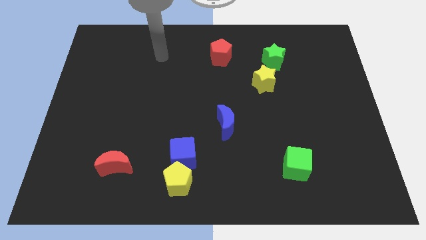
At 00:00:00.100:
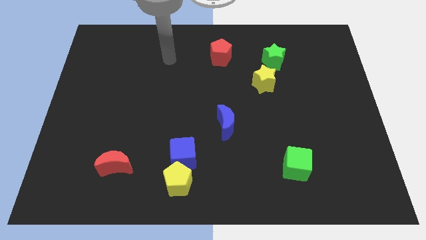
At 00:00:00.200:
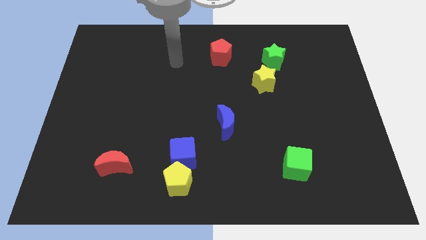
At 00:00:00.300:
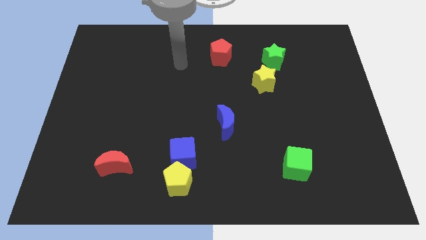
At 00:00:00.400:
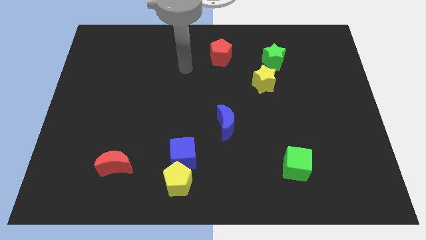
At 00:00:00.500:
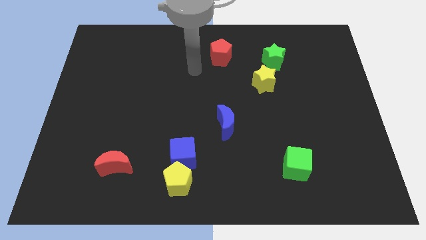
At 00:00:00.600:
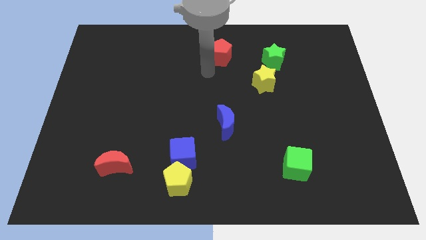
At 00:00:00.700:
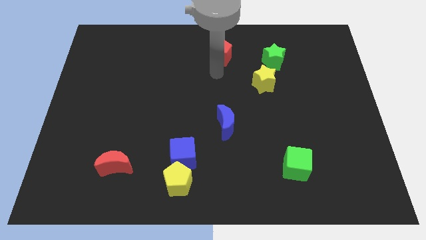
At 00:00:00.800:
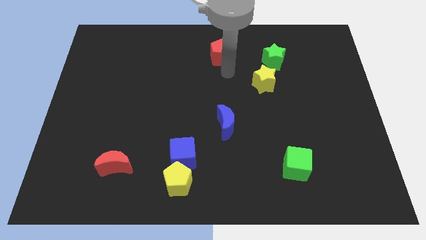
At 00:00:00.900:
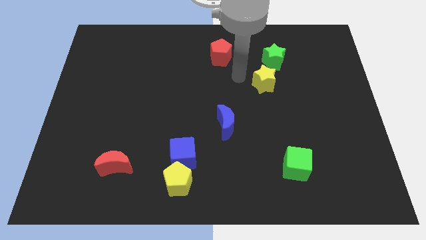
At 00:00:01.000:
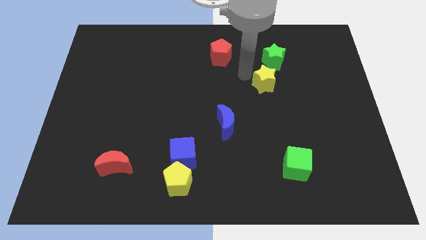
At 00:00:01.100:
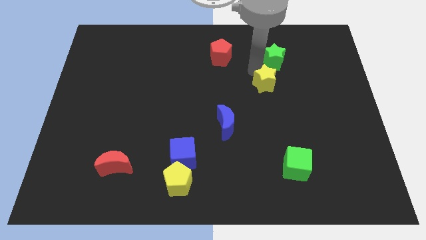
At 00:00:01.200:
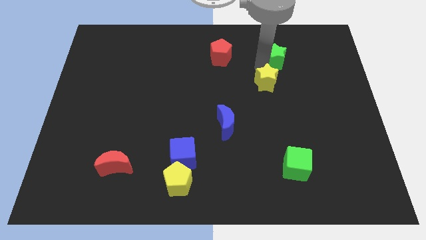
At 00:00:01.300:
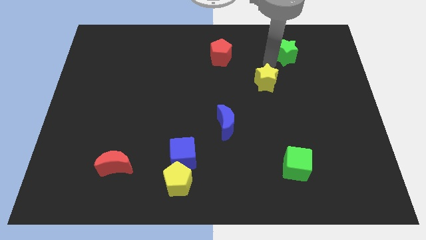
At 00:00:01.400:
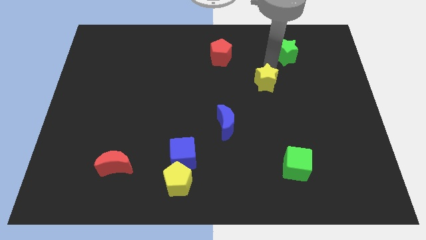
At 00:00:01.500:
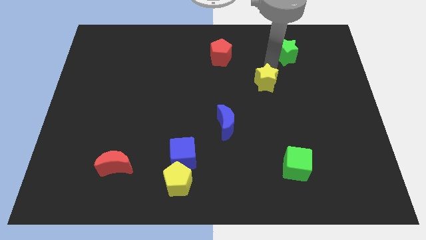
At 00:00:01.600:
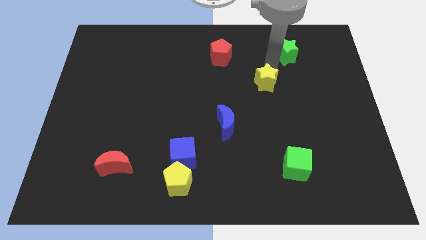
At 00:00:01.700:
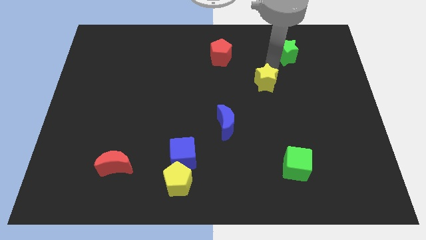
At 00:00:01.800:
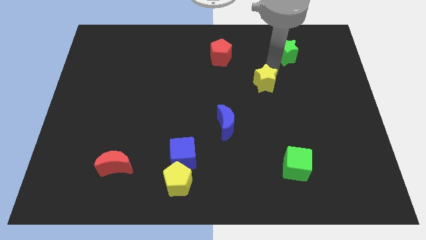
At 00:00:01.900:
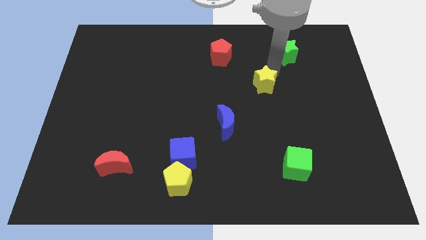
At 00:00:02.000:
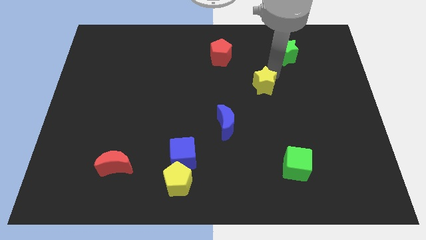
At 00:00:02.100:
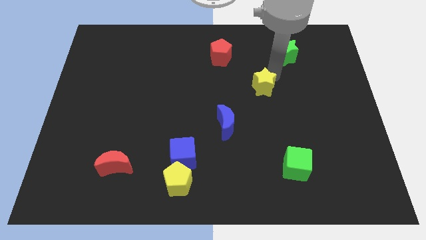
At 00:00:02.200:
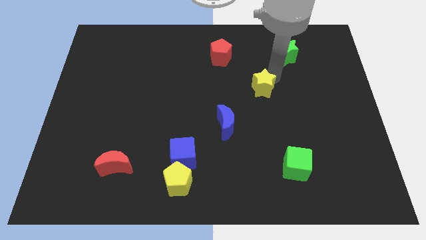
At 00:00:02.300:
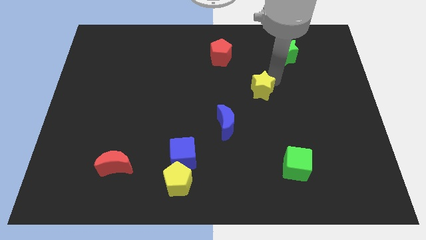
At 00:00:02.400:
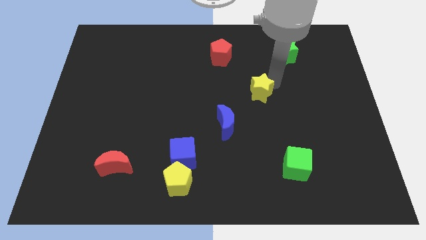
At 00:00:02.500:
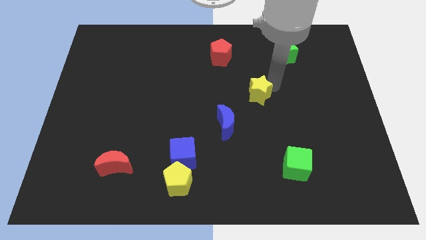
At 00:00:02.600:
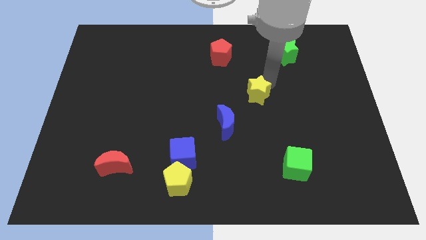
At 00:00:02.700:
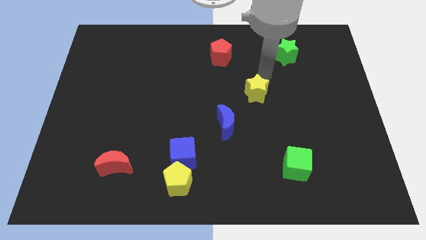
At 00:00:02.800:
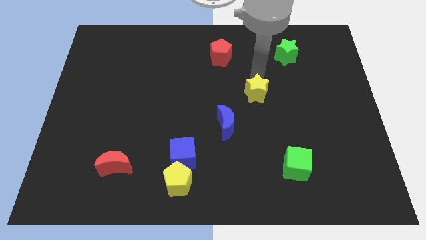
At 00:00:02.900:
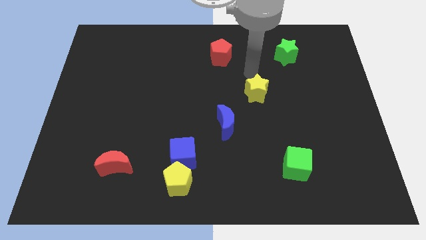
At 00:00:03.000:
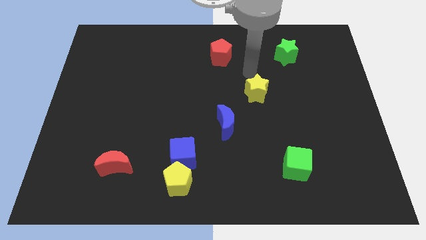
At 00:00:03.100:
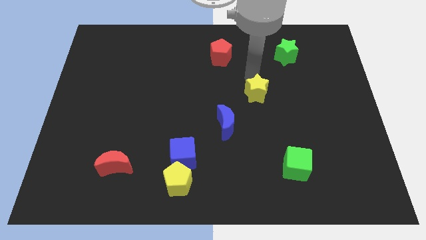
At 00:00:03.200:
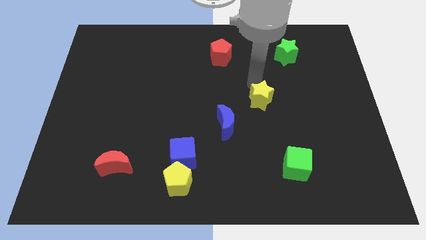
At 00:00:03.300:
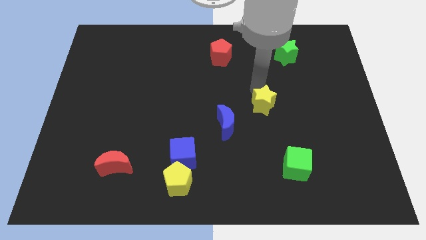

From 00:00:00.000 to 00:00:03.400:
push the yellow star down somewhat

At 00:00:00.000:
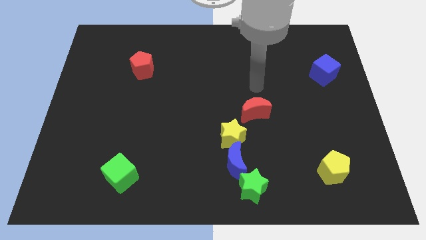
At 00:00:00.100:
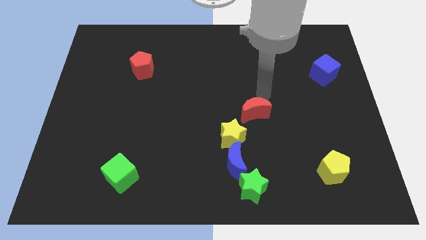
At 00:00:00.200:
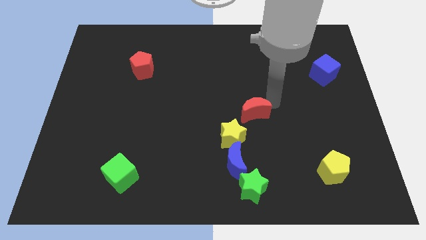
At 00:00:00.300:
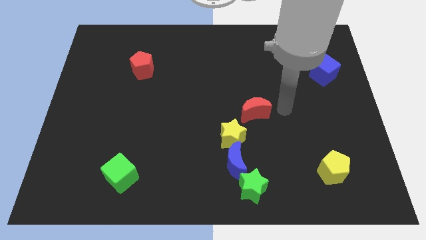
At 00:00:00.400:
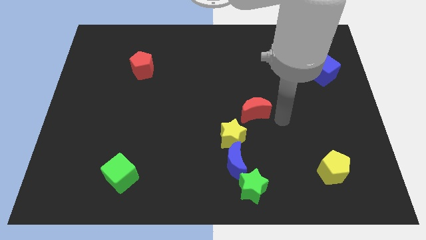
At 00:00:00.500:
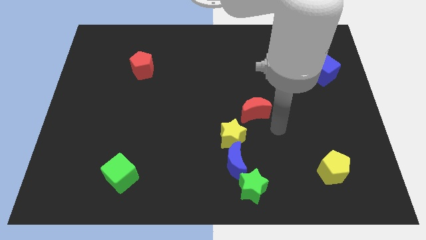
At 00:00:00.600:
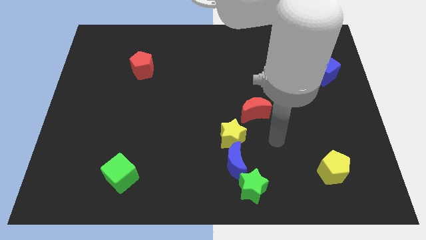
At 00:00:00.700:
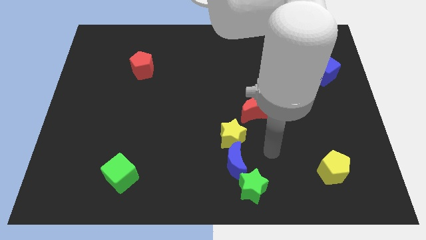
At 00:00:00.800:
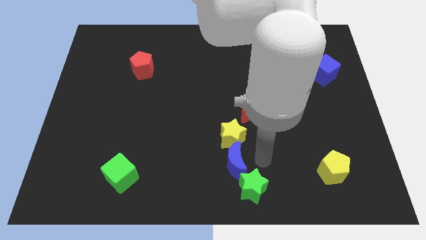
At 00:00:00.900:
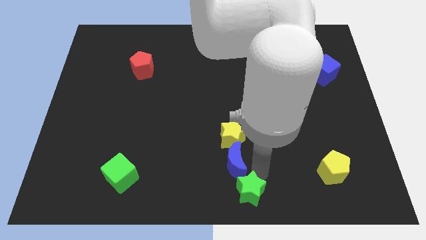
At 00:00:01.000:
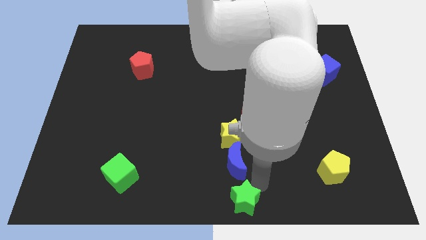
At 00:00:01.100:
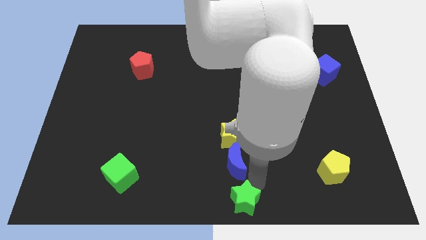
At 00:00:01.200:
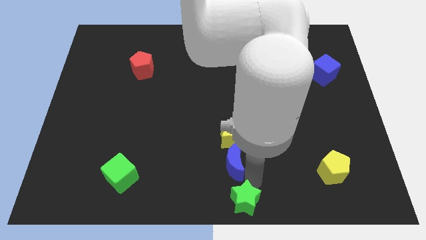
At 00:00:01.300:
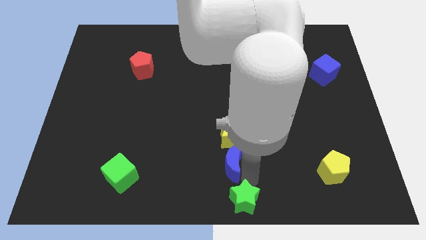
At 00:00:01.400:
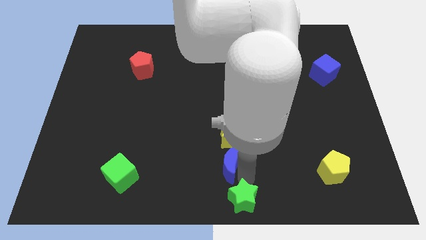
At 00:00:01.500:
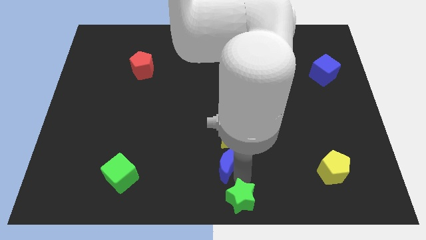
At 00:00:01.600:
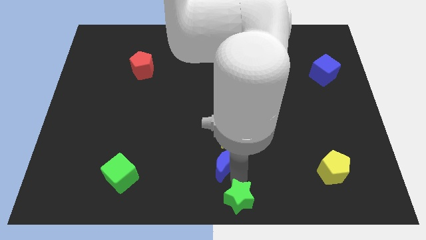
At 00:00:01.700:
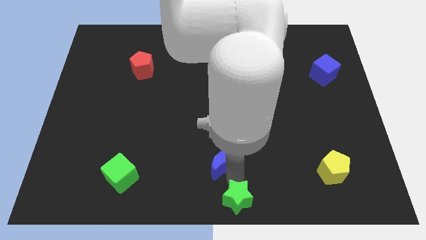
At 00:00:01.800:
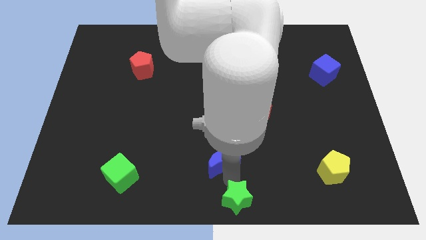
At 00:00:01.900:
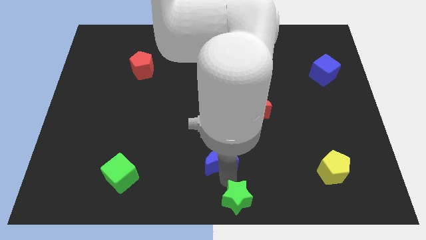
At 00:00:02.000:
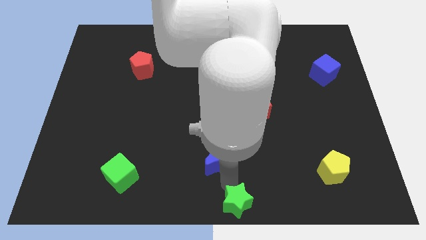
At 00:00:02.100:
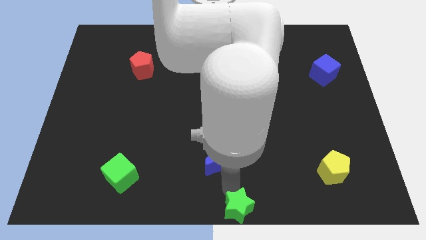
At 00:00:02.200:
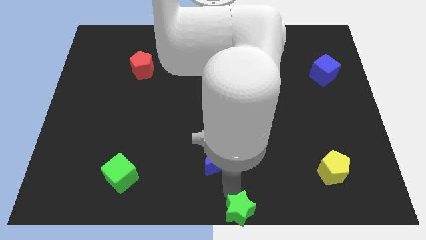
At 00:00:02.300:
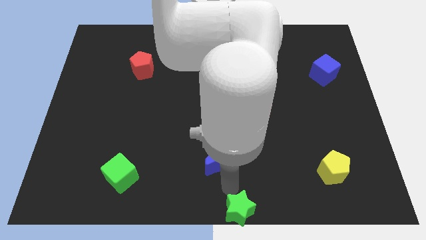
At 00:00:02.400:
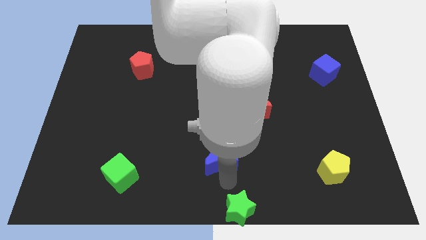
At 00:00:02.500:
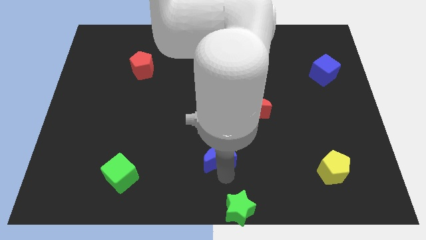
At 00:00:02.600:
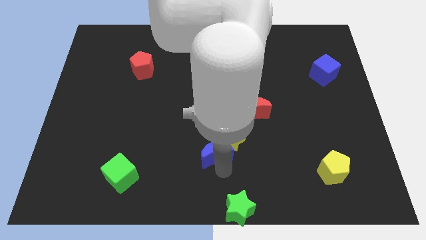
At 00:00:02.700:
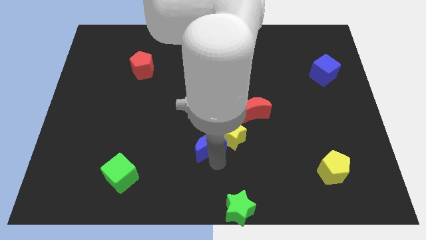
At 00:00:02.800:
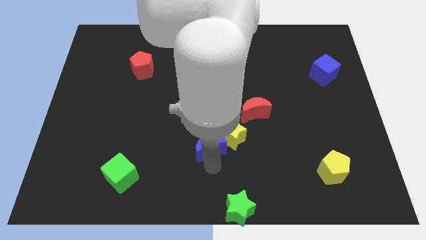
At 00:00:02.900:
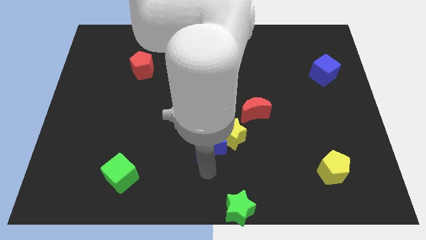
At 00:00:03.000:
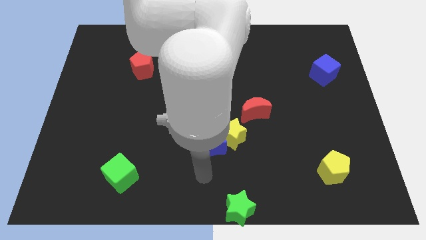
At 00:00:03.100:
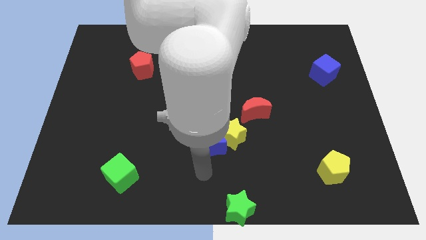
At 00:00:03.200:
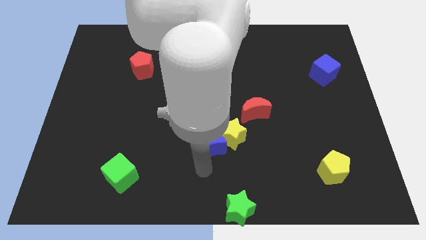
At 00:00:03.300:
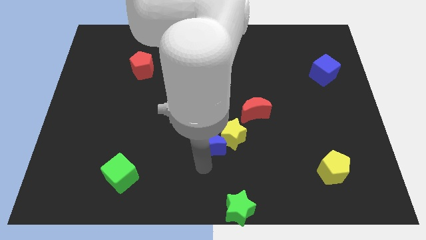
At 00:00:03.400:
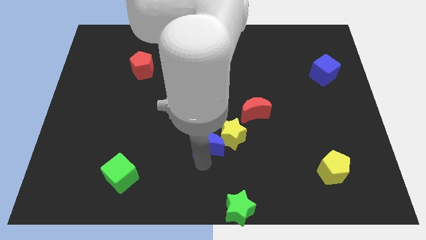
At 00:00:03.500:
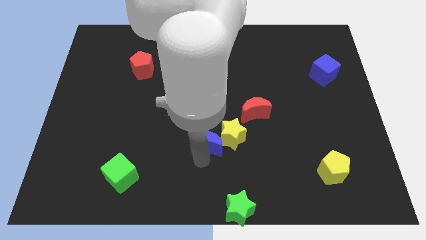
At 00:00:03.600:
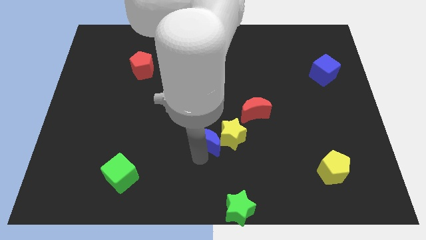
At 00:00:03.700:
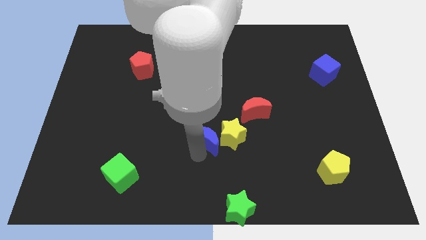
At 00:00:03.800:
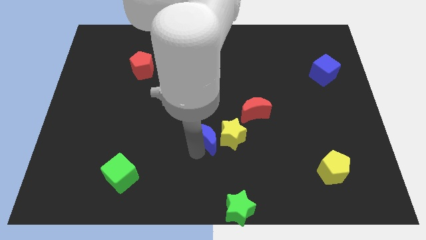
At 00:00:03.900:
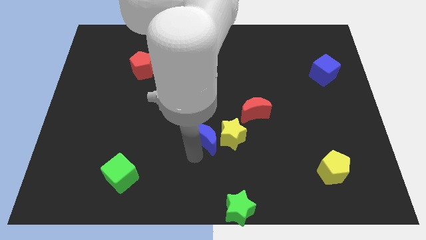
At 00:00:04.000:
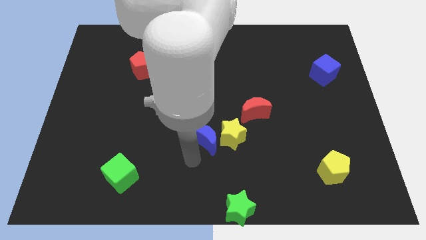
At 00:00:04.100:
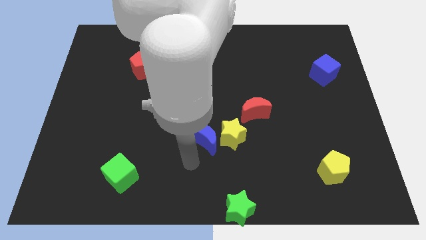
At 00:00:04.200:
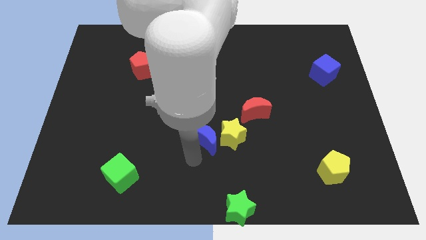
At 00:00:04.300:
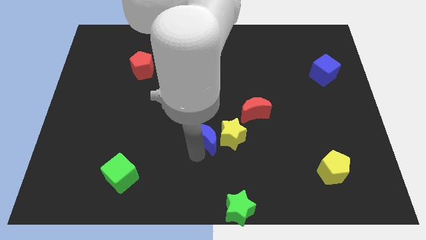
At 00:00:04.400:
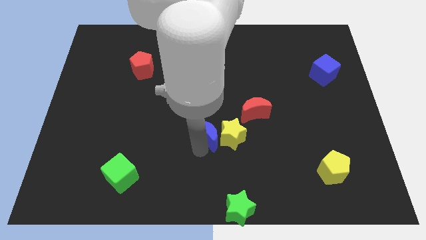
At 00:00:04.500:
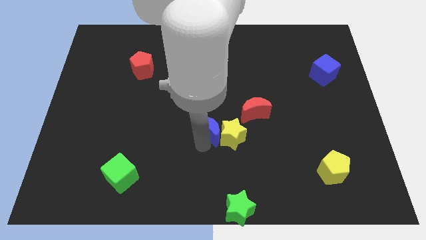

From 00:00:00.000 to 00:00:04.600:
slide the blue moon upwards somewhat
